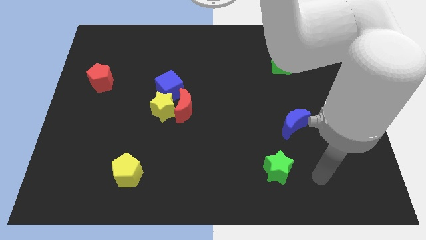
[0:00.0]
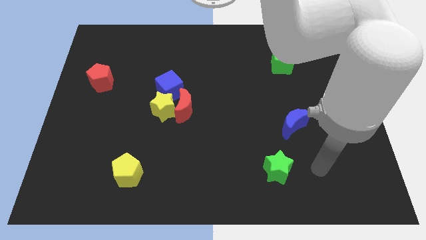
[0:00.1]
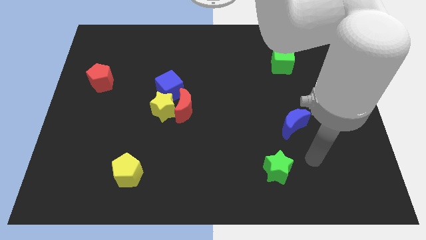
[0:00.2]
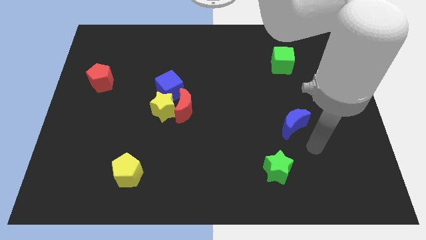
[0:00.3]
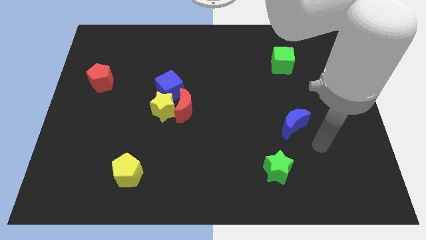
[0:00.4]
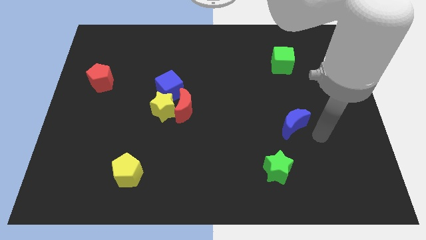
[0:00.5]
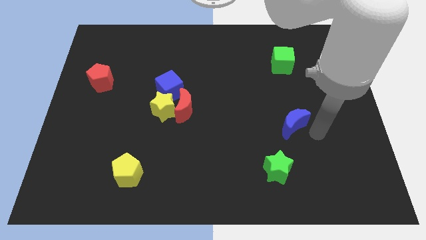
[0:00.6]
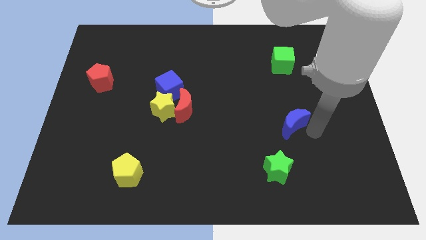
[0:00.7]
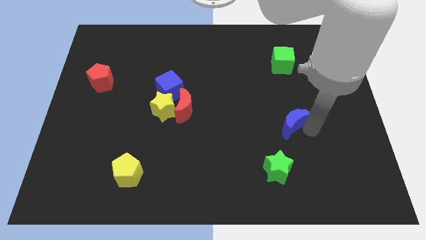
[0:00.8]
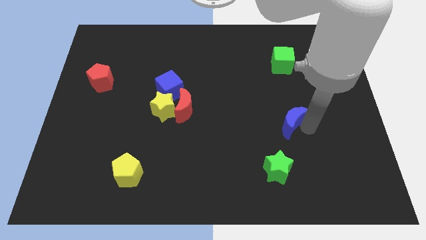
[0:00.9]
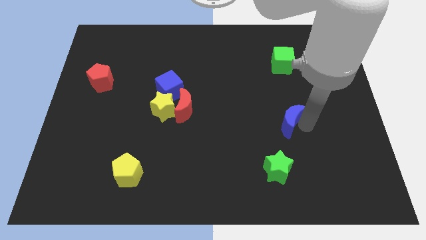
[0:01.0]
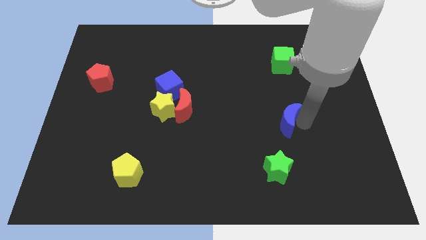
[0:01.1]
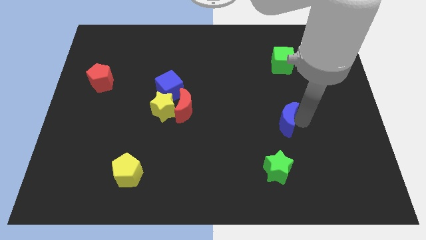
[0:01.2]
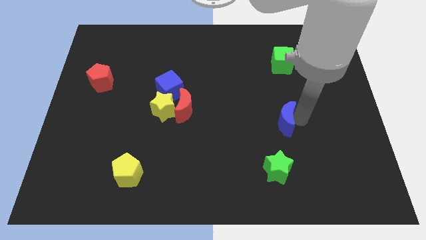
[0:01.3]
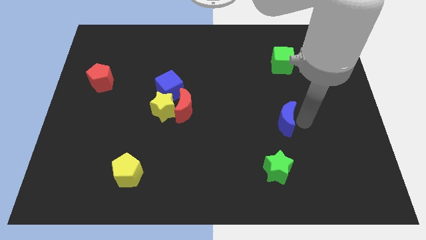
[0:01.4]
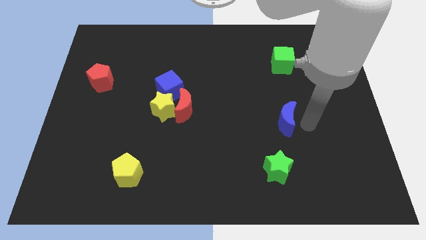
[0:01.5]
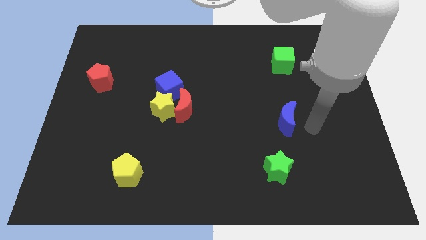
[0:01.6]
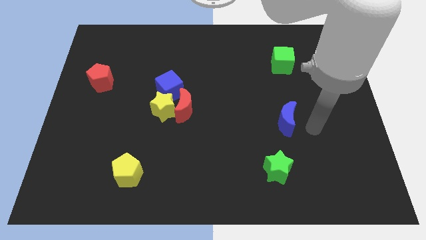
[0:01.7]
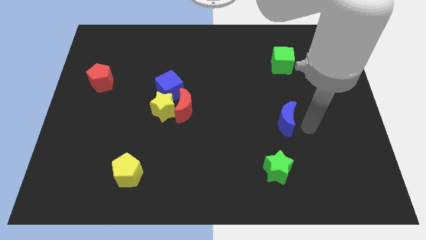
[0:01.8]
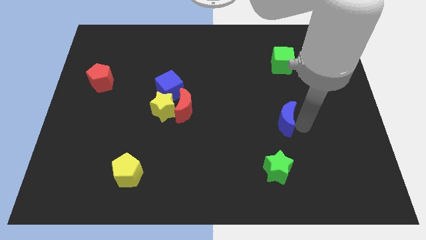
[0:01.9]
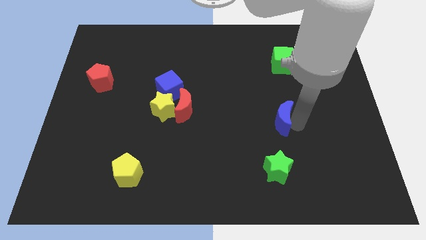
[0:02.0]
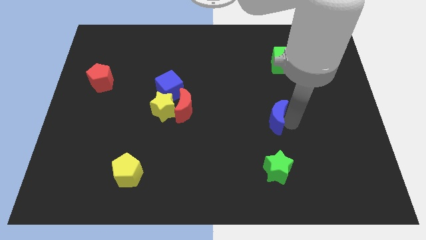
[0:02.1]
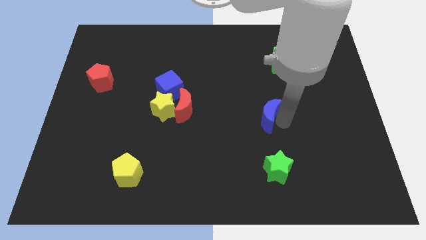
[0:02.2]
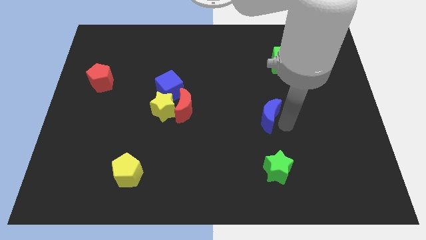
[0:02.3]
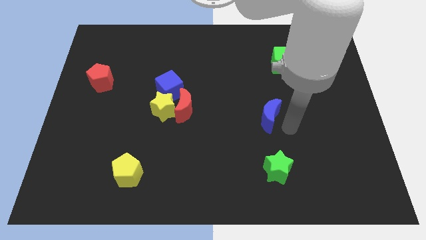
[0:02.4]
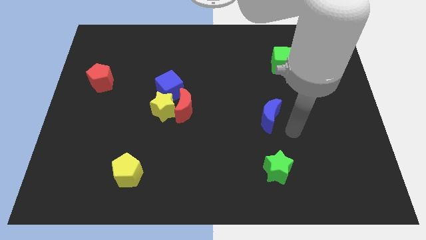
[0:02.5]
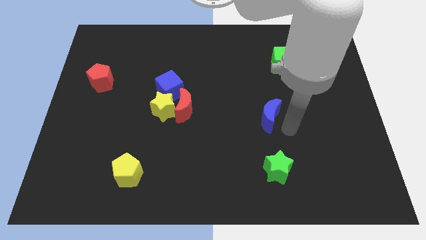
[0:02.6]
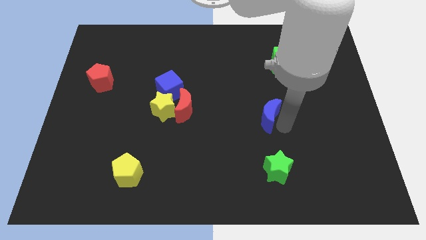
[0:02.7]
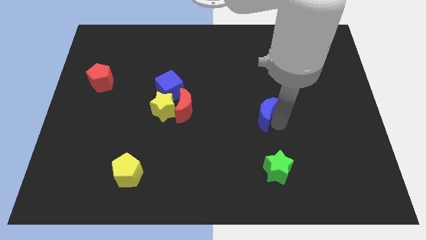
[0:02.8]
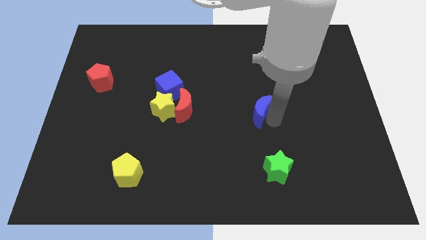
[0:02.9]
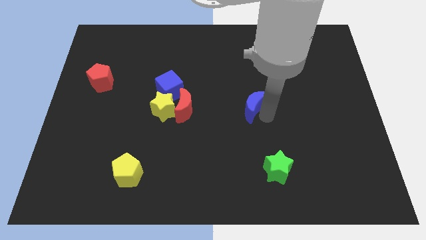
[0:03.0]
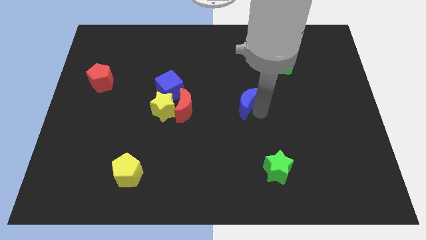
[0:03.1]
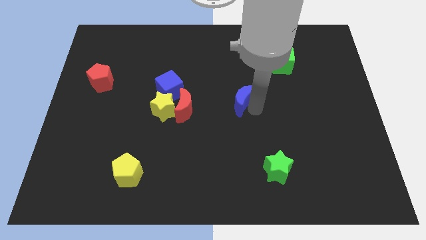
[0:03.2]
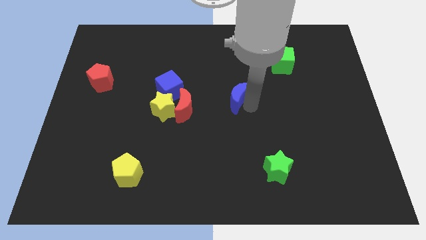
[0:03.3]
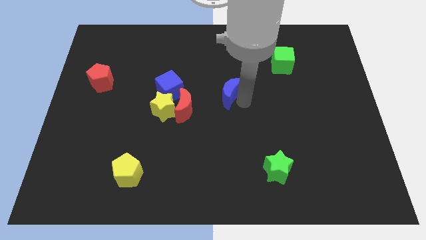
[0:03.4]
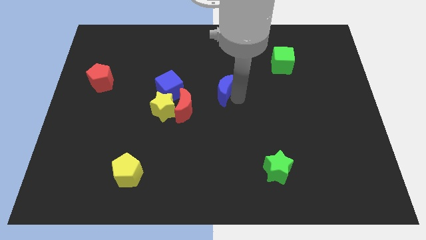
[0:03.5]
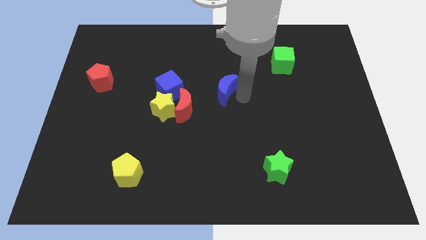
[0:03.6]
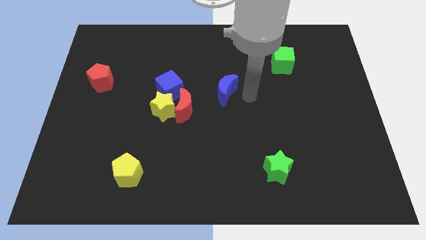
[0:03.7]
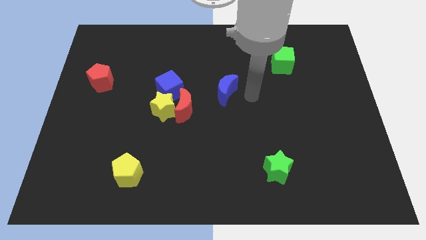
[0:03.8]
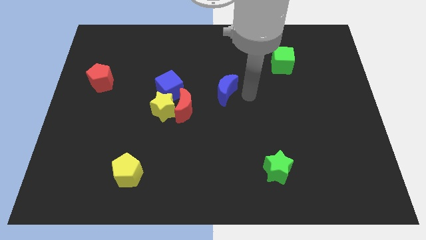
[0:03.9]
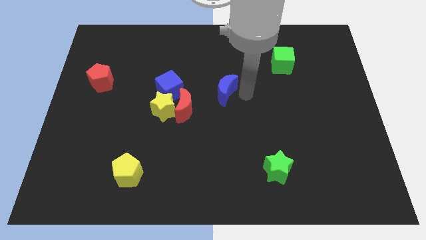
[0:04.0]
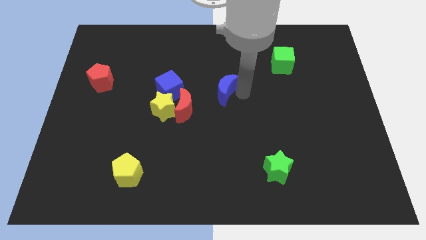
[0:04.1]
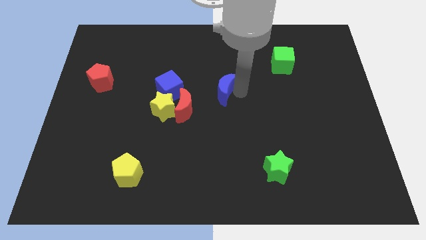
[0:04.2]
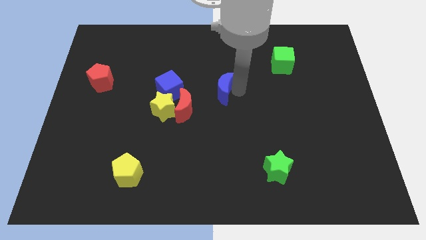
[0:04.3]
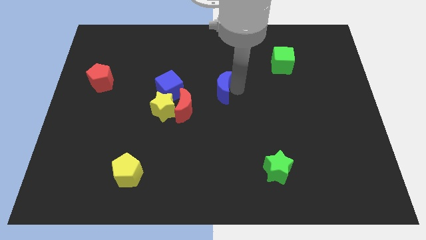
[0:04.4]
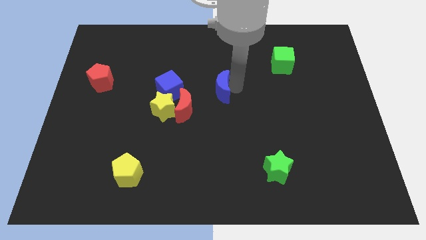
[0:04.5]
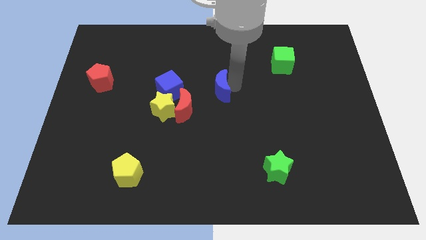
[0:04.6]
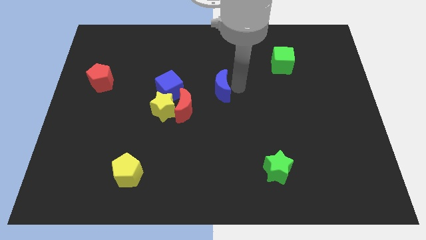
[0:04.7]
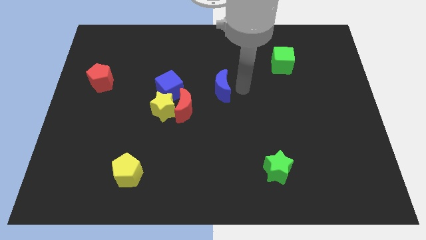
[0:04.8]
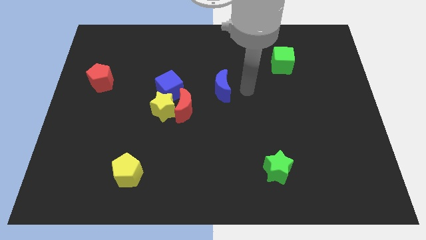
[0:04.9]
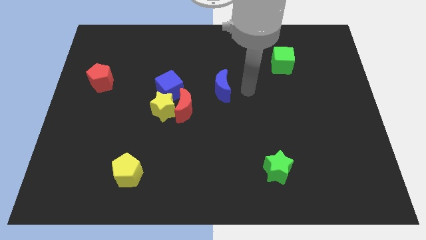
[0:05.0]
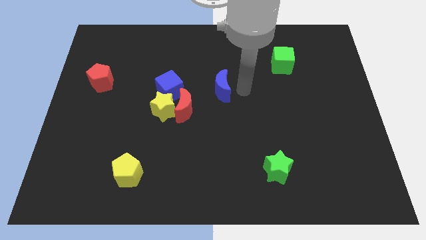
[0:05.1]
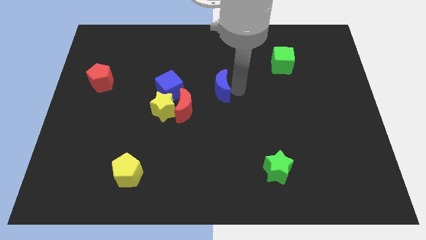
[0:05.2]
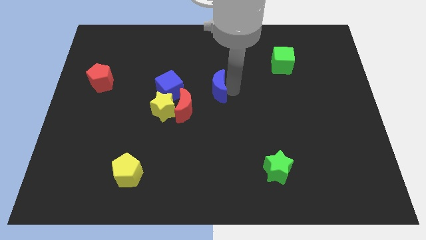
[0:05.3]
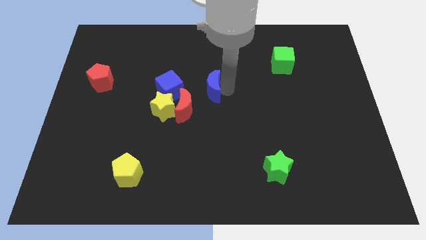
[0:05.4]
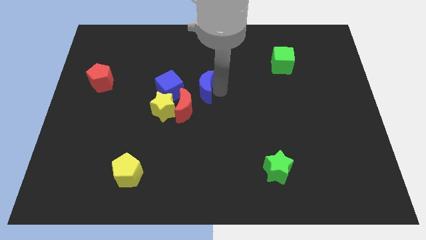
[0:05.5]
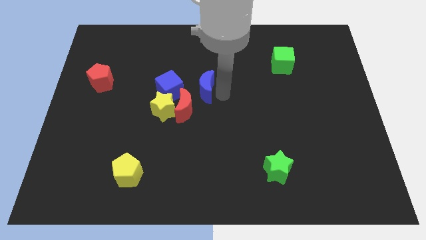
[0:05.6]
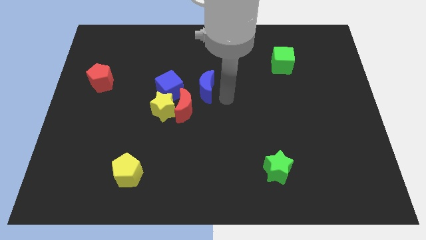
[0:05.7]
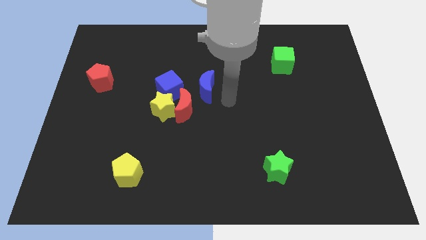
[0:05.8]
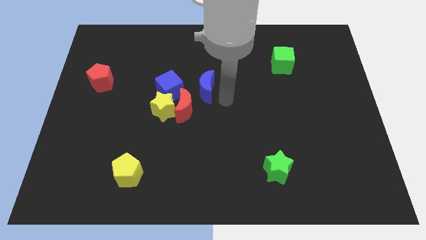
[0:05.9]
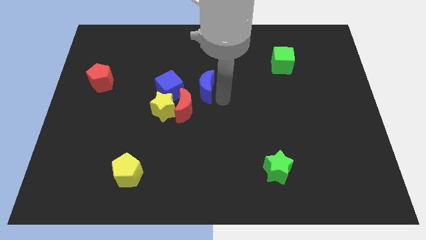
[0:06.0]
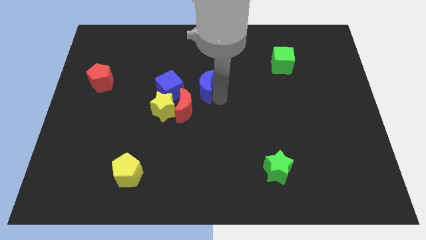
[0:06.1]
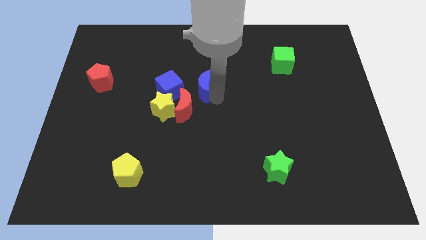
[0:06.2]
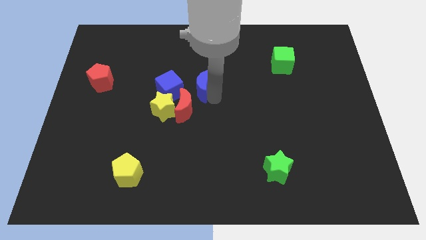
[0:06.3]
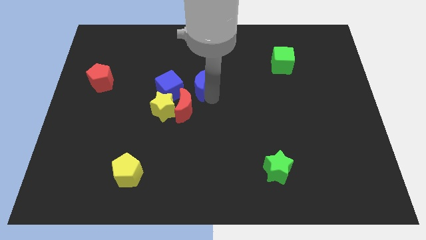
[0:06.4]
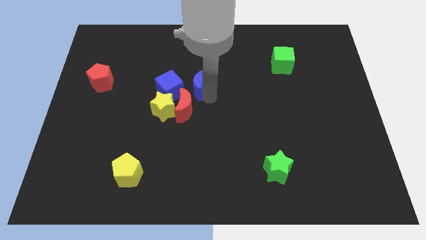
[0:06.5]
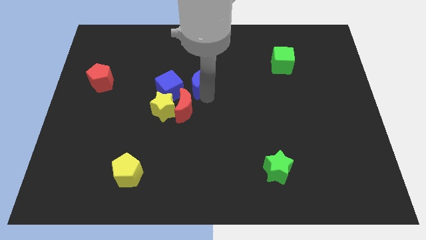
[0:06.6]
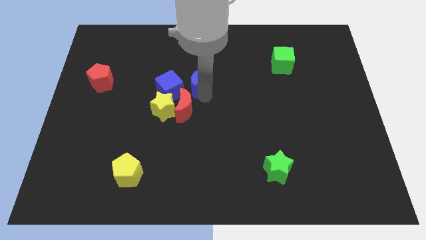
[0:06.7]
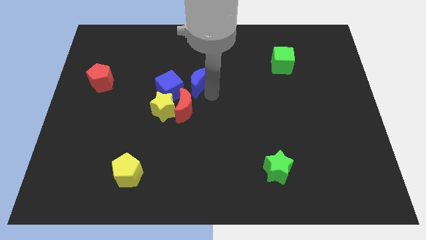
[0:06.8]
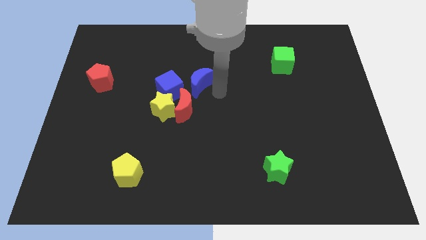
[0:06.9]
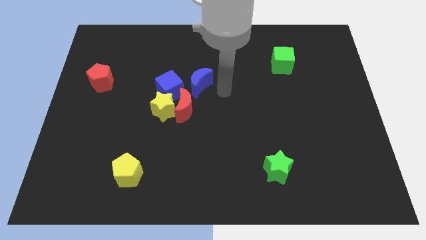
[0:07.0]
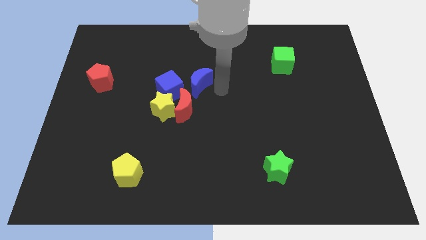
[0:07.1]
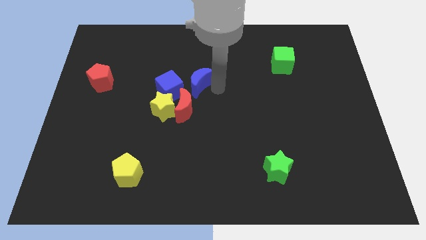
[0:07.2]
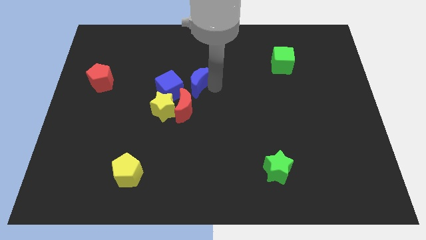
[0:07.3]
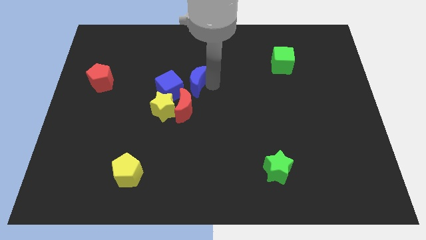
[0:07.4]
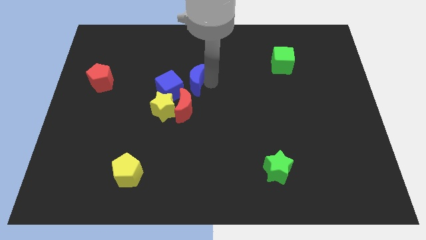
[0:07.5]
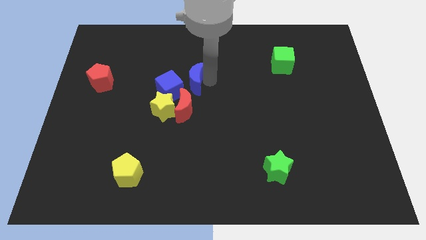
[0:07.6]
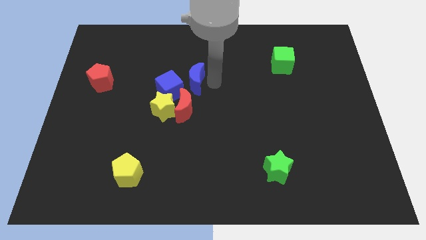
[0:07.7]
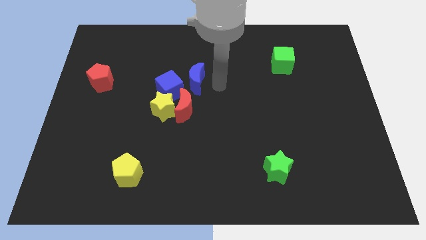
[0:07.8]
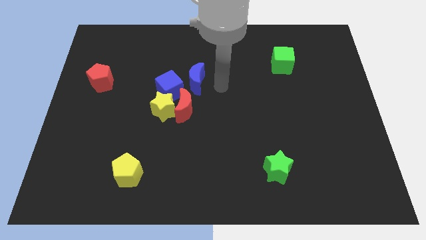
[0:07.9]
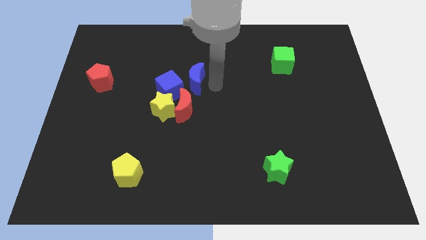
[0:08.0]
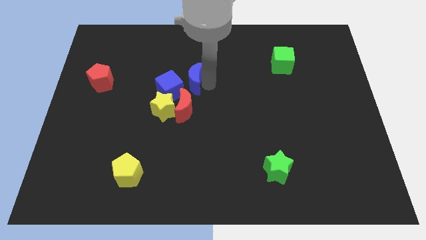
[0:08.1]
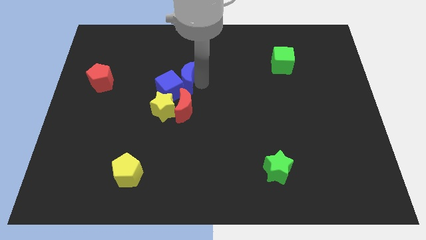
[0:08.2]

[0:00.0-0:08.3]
move the blue moon to the top of the yellow star
